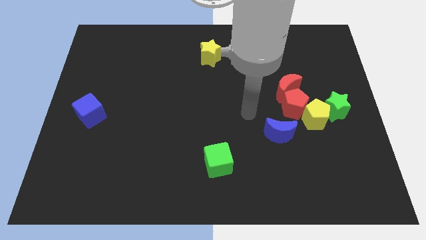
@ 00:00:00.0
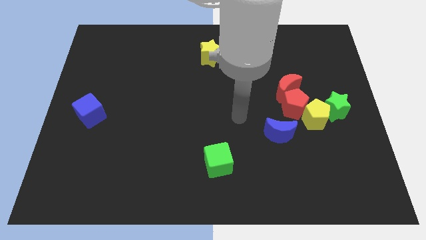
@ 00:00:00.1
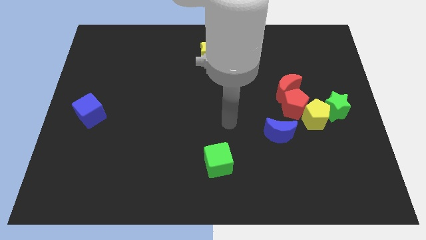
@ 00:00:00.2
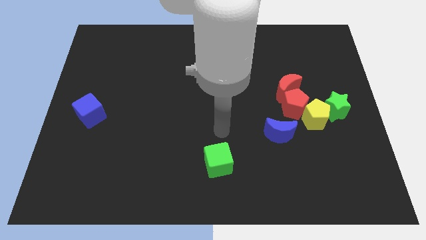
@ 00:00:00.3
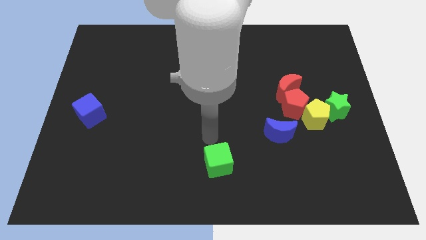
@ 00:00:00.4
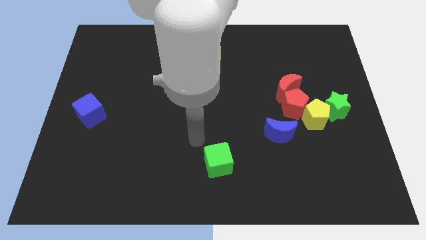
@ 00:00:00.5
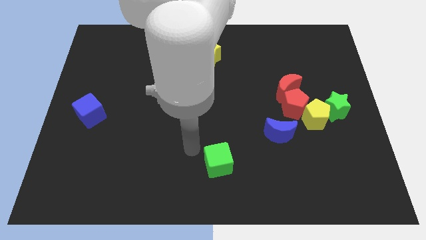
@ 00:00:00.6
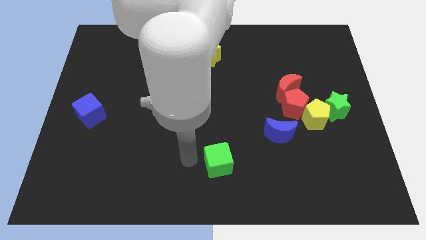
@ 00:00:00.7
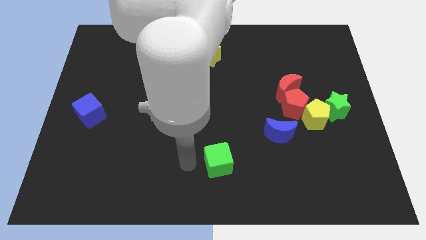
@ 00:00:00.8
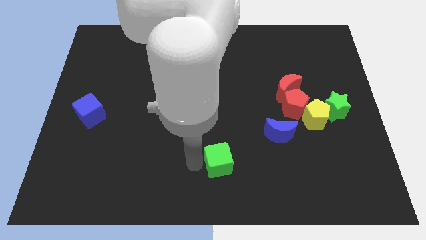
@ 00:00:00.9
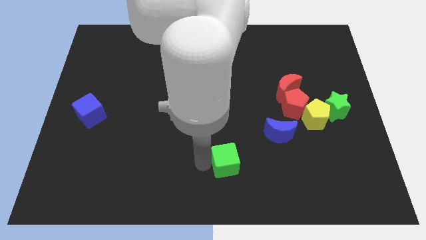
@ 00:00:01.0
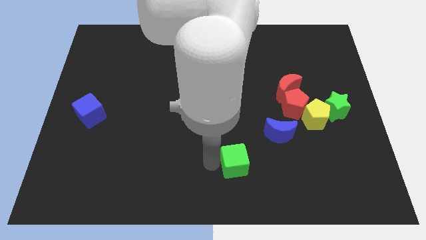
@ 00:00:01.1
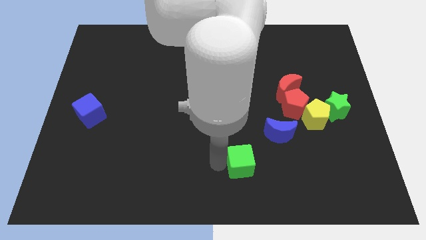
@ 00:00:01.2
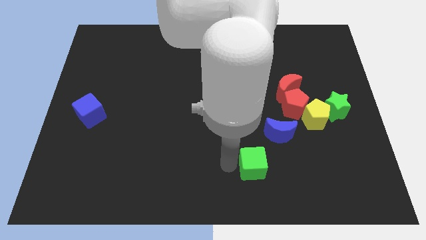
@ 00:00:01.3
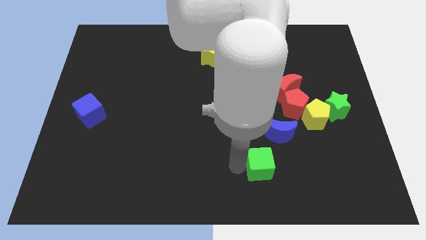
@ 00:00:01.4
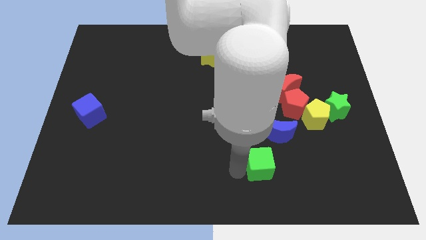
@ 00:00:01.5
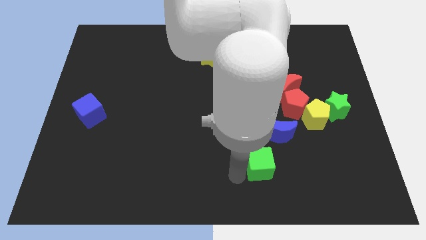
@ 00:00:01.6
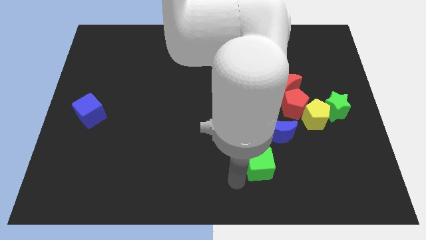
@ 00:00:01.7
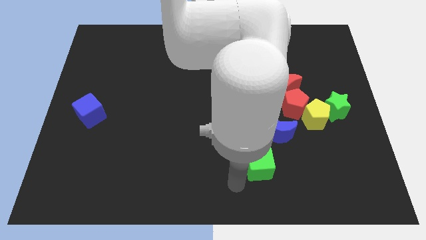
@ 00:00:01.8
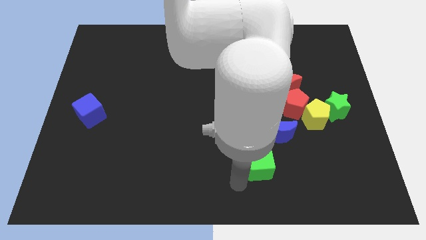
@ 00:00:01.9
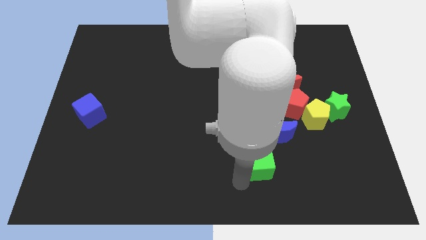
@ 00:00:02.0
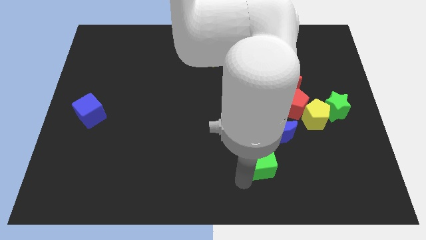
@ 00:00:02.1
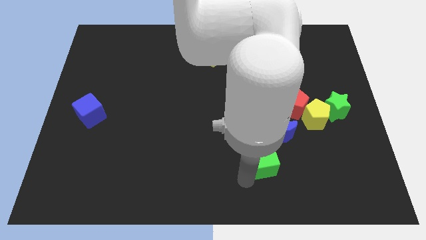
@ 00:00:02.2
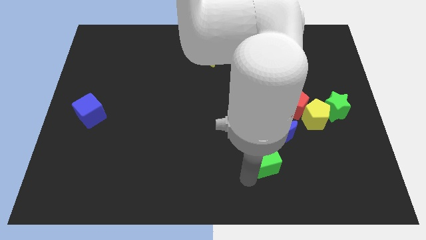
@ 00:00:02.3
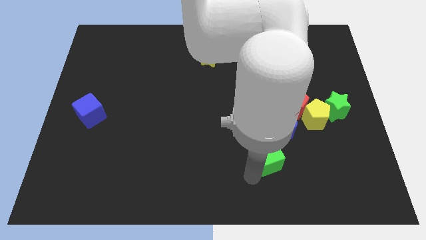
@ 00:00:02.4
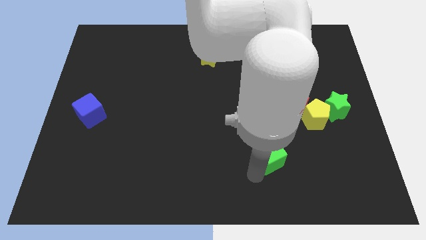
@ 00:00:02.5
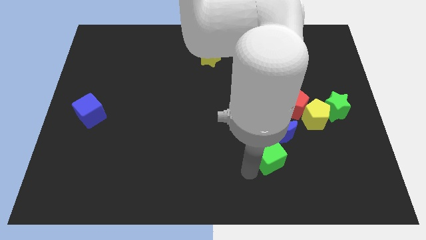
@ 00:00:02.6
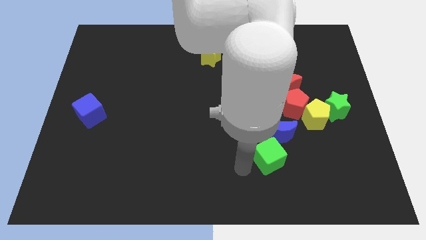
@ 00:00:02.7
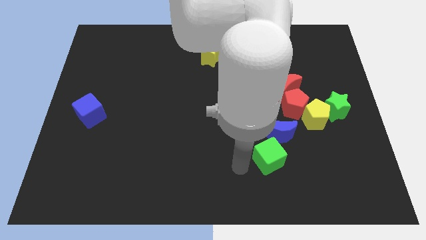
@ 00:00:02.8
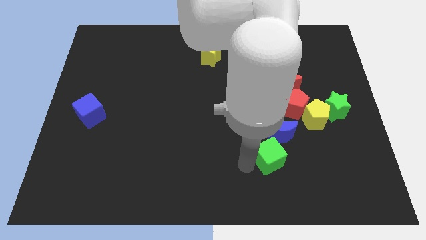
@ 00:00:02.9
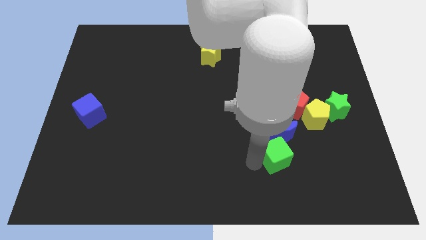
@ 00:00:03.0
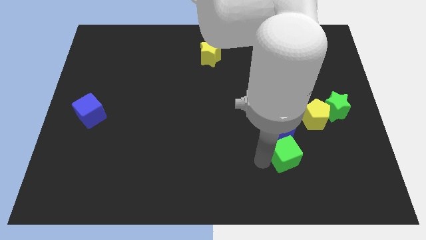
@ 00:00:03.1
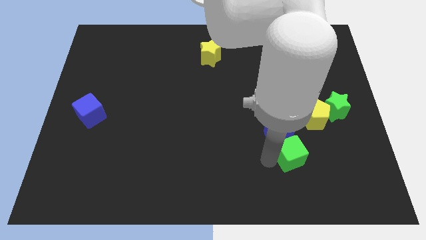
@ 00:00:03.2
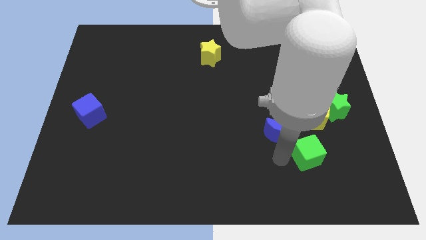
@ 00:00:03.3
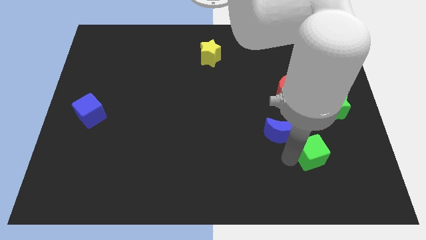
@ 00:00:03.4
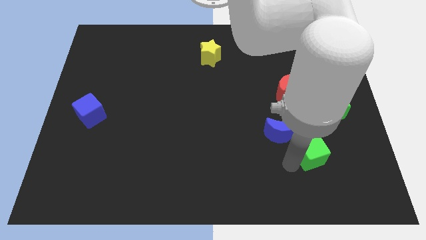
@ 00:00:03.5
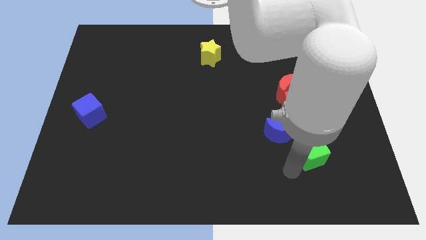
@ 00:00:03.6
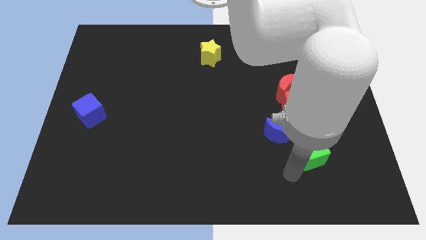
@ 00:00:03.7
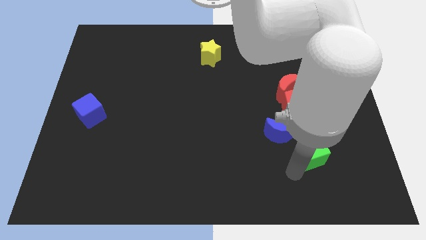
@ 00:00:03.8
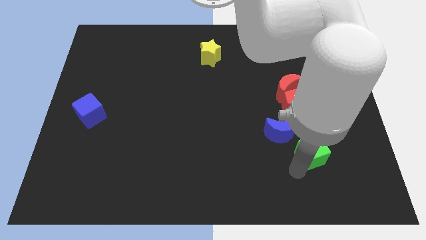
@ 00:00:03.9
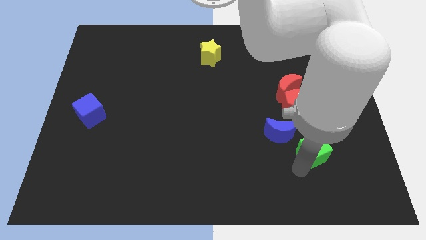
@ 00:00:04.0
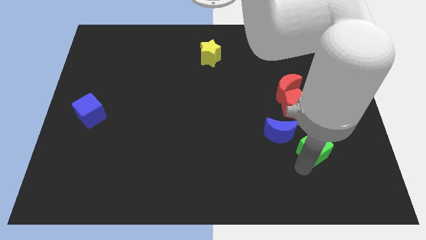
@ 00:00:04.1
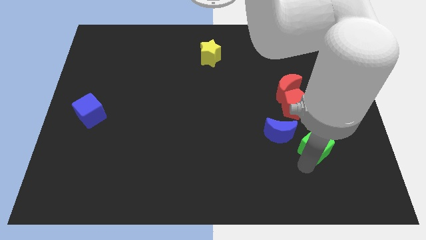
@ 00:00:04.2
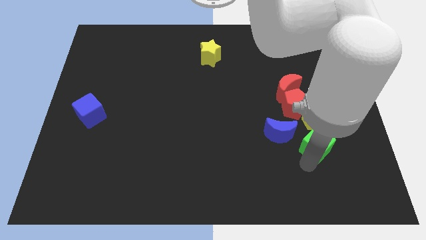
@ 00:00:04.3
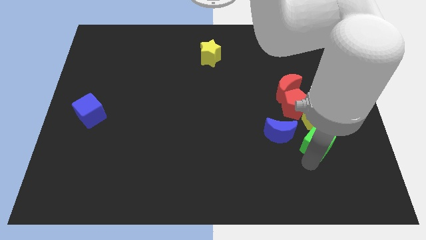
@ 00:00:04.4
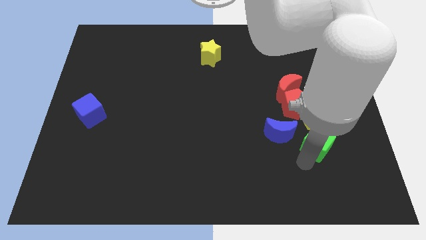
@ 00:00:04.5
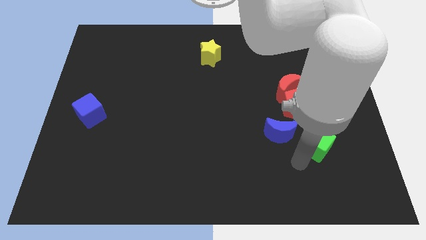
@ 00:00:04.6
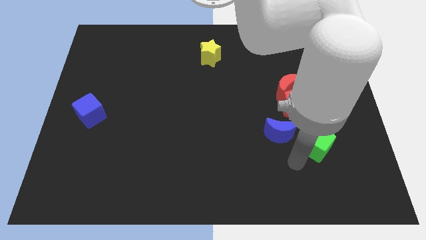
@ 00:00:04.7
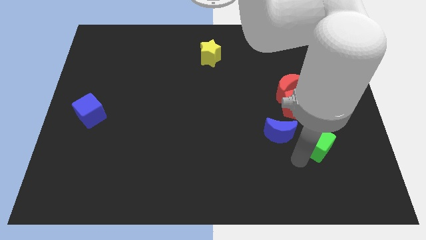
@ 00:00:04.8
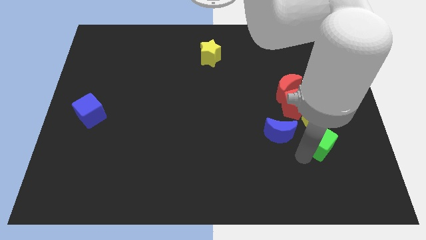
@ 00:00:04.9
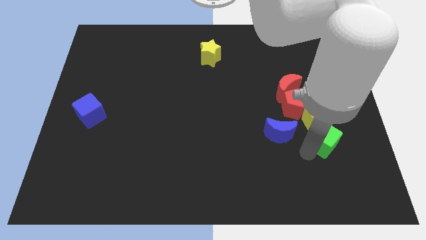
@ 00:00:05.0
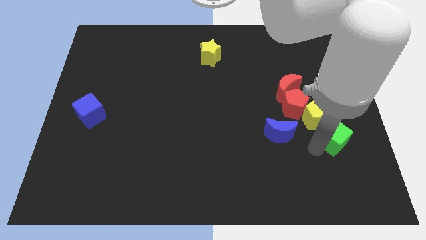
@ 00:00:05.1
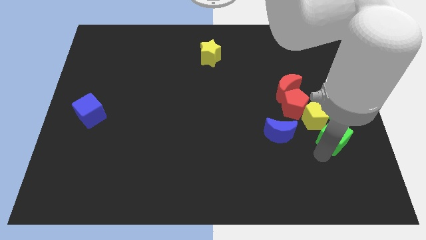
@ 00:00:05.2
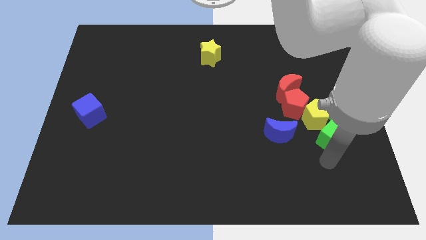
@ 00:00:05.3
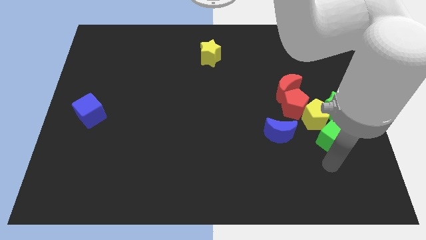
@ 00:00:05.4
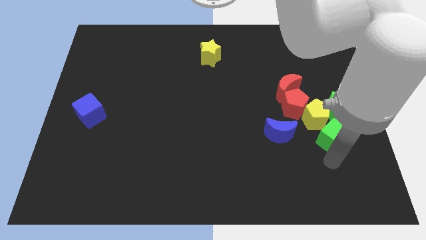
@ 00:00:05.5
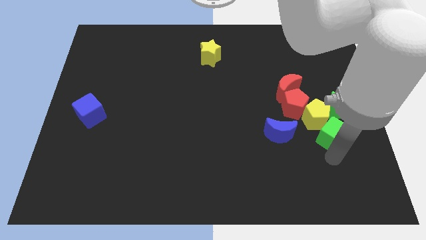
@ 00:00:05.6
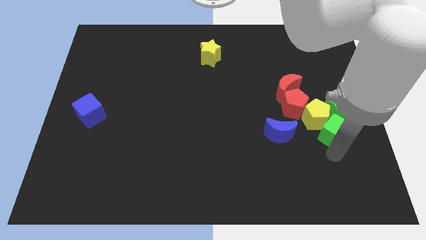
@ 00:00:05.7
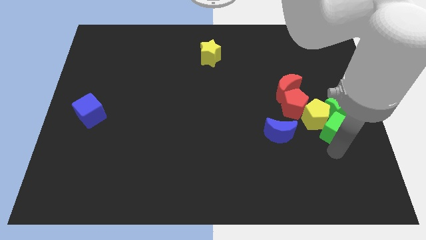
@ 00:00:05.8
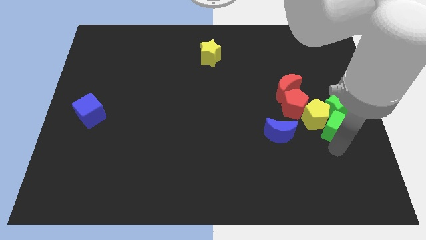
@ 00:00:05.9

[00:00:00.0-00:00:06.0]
push the green cube towards the green star

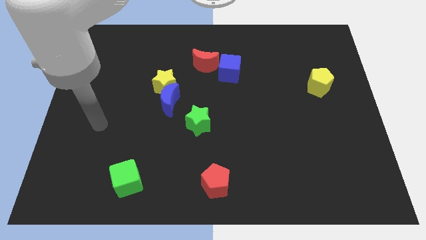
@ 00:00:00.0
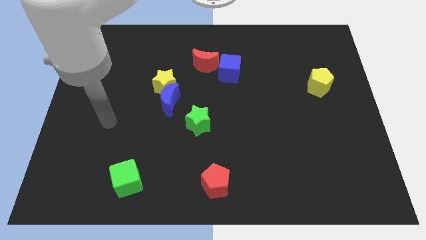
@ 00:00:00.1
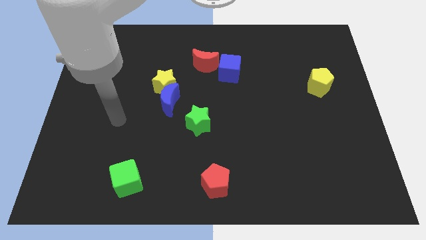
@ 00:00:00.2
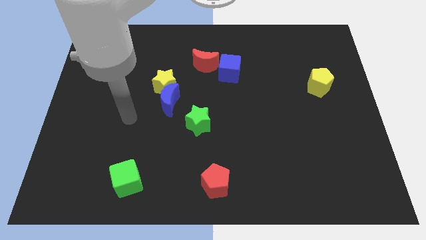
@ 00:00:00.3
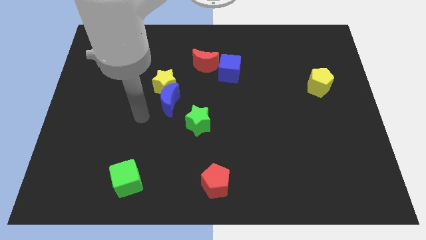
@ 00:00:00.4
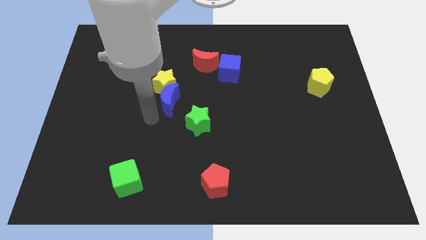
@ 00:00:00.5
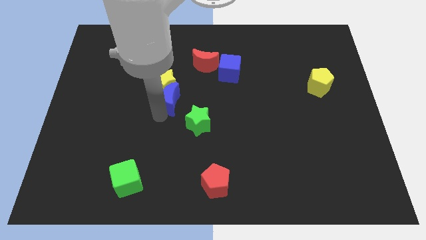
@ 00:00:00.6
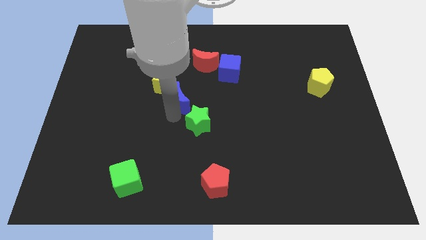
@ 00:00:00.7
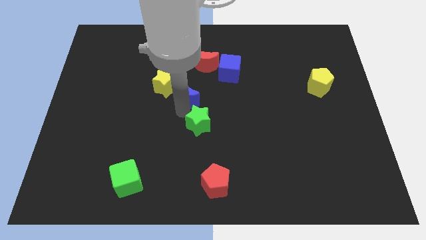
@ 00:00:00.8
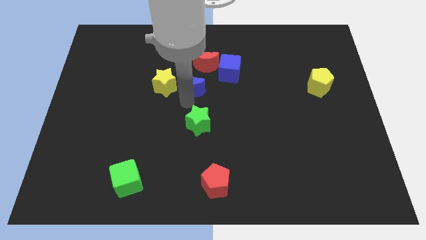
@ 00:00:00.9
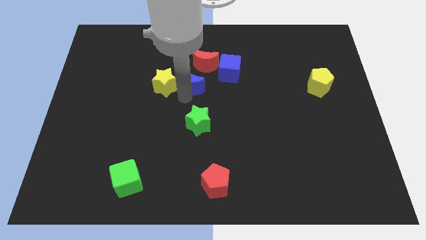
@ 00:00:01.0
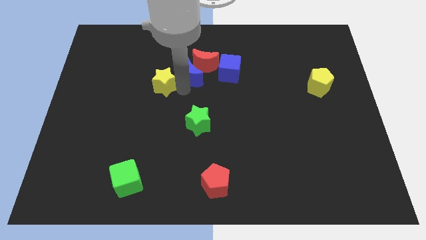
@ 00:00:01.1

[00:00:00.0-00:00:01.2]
slide the red moon close to the blue moon

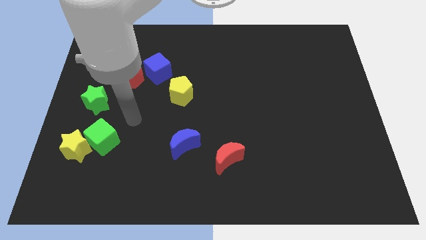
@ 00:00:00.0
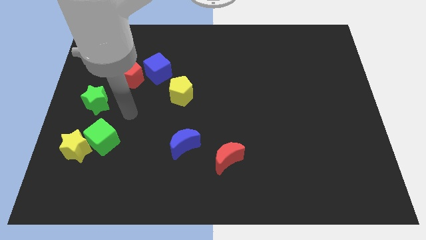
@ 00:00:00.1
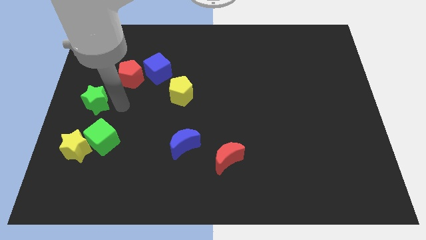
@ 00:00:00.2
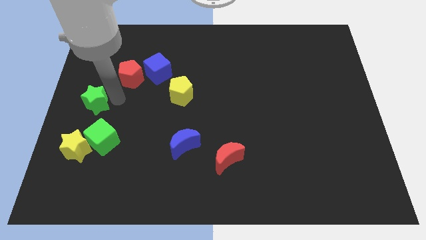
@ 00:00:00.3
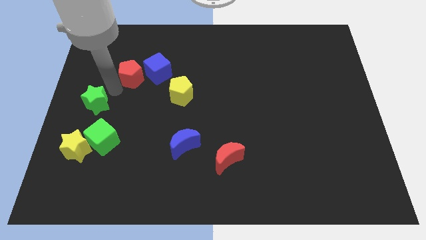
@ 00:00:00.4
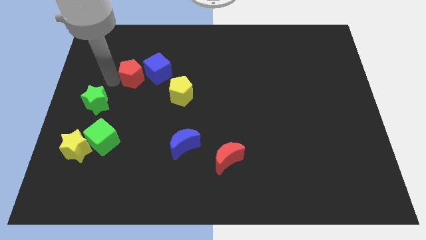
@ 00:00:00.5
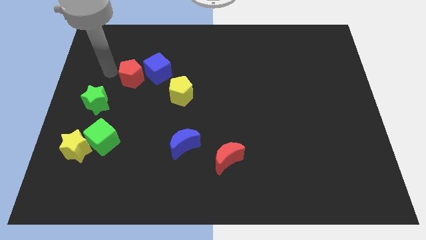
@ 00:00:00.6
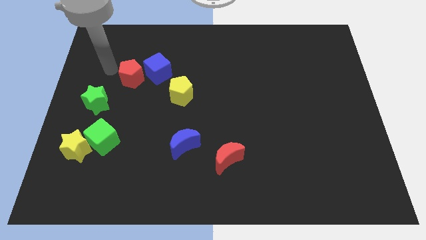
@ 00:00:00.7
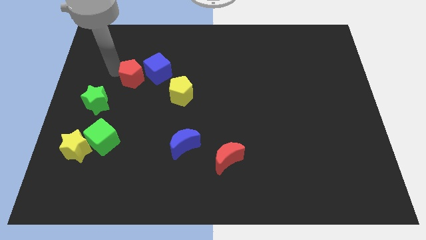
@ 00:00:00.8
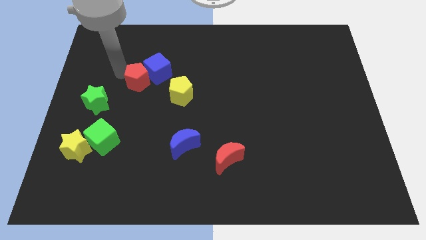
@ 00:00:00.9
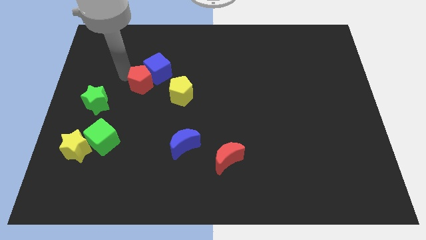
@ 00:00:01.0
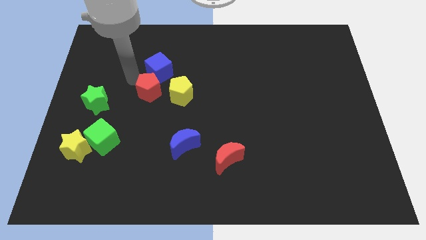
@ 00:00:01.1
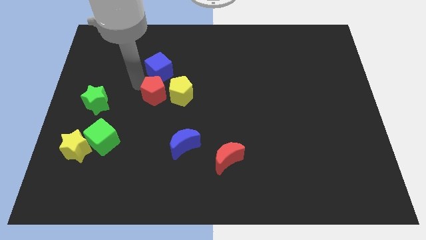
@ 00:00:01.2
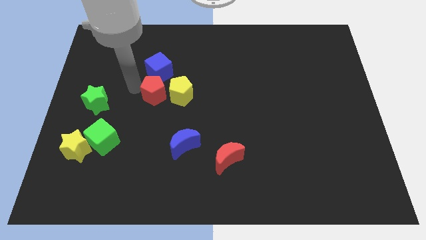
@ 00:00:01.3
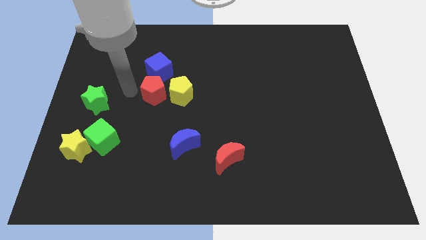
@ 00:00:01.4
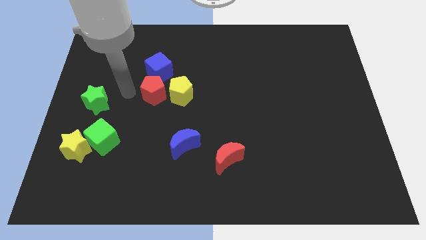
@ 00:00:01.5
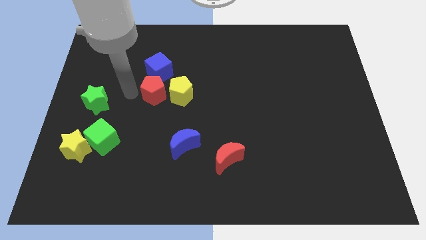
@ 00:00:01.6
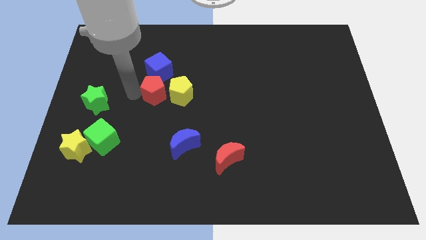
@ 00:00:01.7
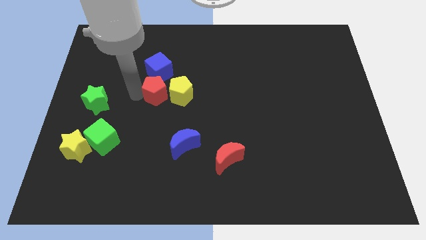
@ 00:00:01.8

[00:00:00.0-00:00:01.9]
slide the red pentagon towards the yellow pentagon
